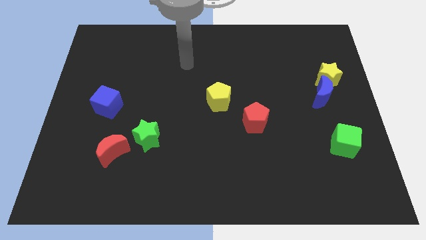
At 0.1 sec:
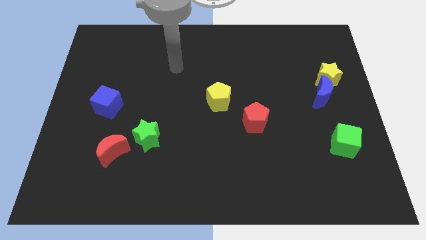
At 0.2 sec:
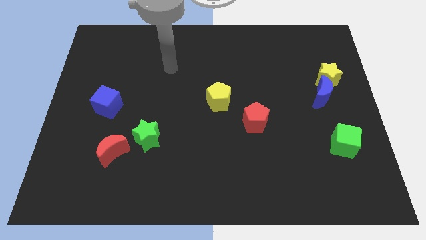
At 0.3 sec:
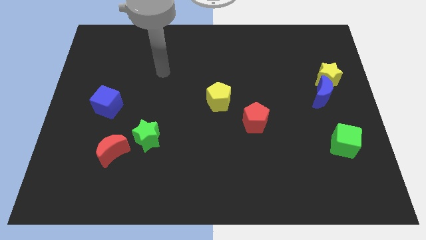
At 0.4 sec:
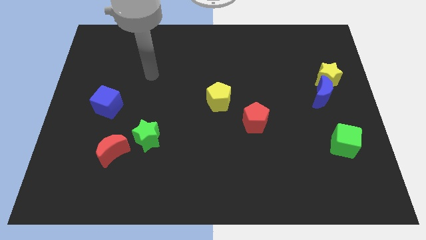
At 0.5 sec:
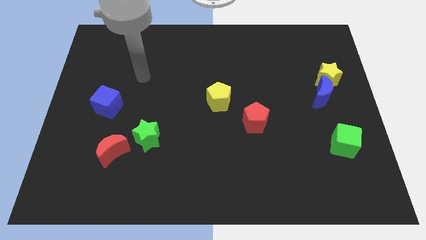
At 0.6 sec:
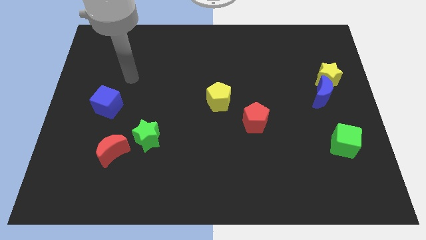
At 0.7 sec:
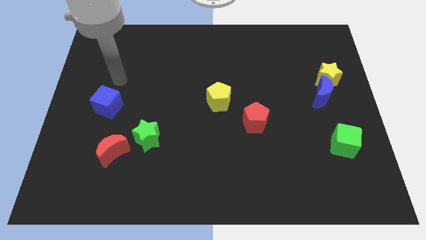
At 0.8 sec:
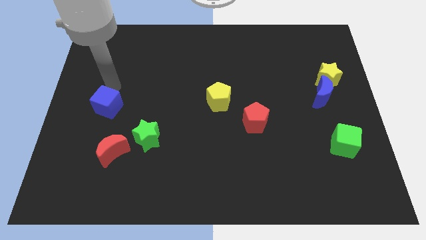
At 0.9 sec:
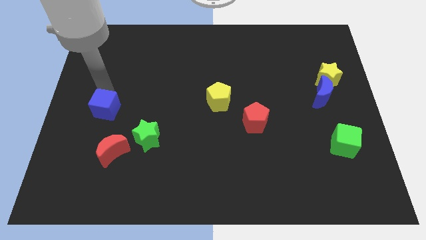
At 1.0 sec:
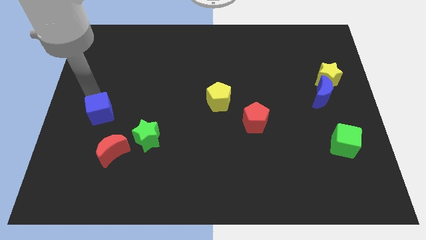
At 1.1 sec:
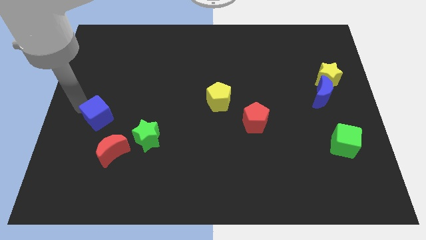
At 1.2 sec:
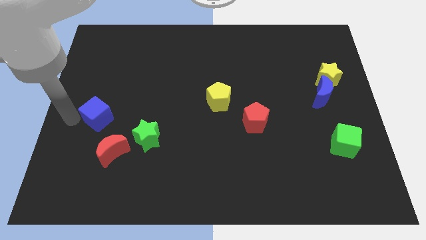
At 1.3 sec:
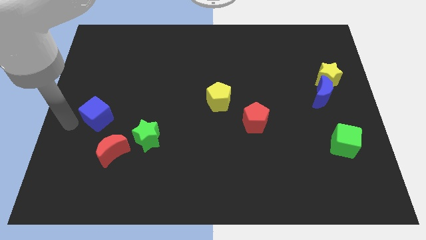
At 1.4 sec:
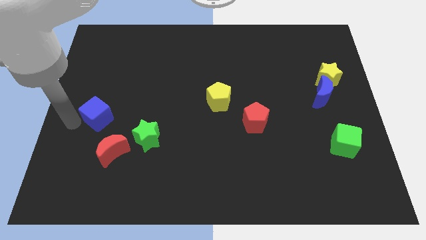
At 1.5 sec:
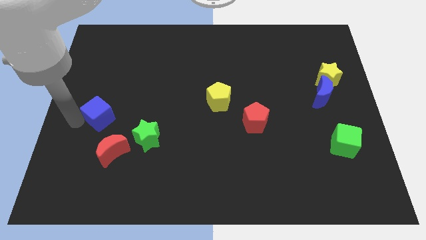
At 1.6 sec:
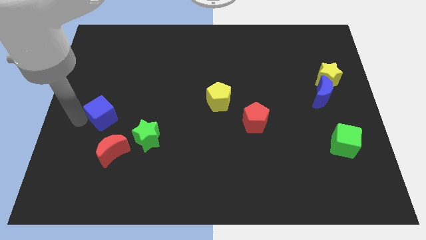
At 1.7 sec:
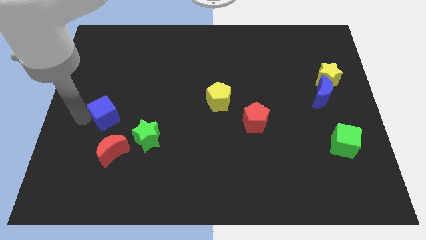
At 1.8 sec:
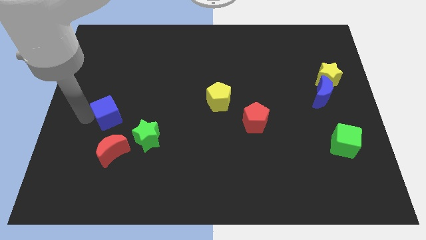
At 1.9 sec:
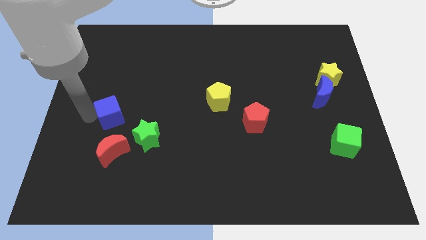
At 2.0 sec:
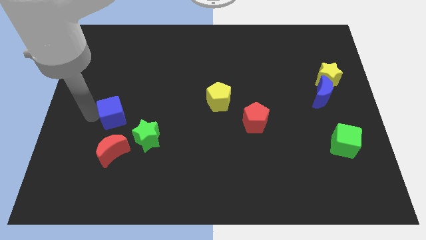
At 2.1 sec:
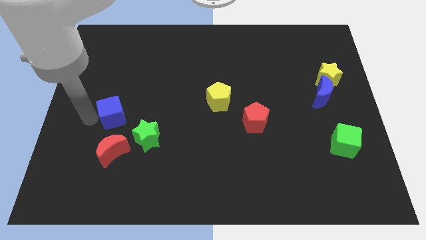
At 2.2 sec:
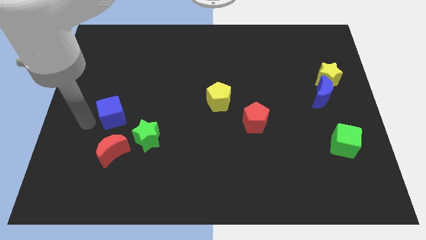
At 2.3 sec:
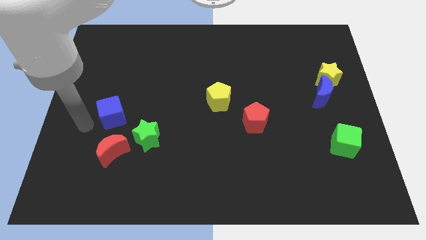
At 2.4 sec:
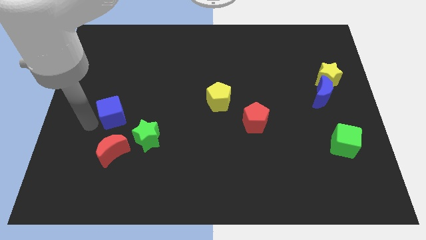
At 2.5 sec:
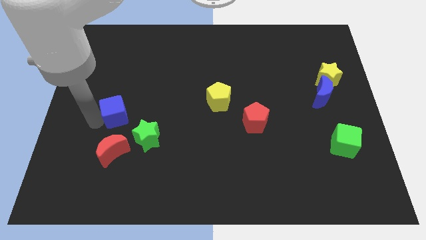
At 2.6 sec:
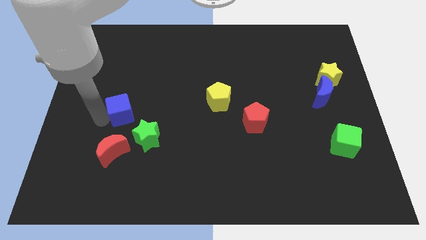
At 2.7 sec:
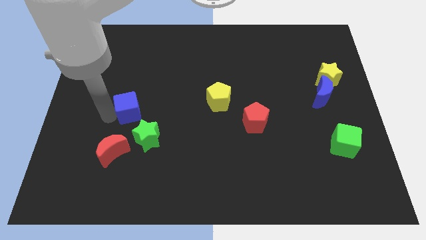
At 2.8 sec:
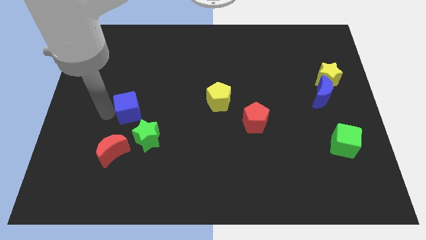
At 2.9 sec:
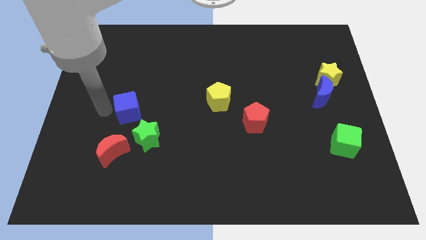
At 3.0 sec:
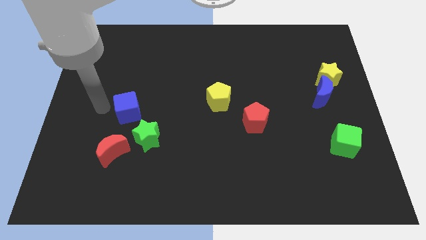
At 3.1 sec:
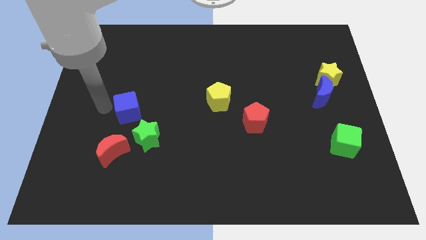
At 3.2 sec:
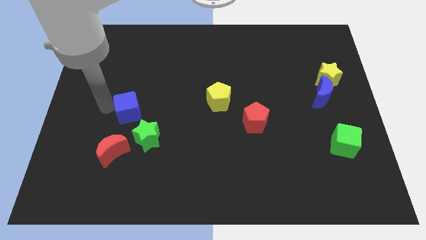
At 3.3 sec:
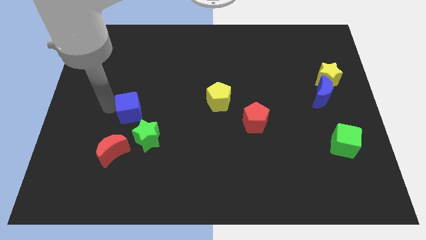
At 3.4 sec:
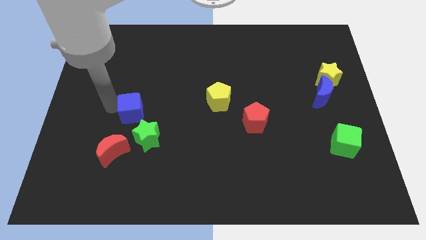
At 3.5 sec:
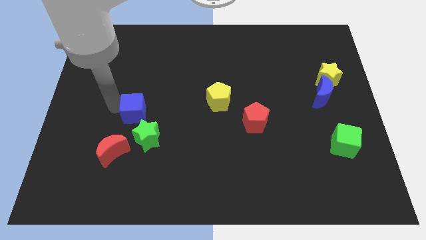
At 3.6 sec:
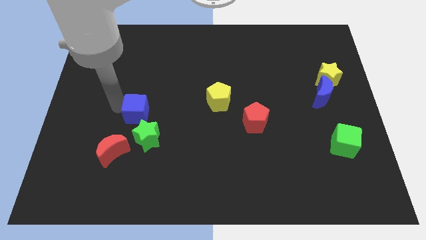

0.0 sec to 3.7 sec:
slide the blue cube a bit to the right

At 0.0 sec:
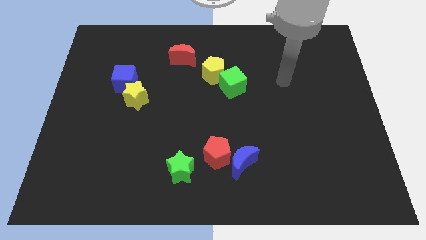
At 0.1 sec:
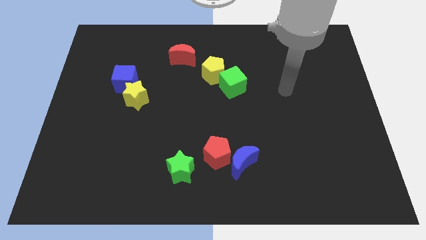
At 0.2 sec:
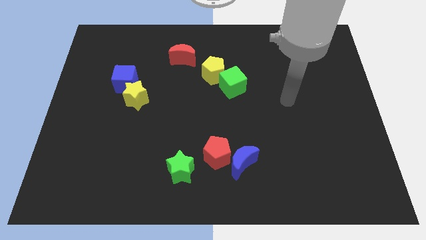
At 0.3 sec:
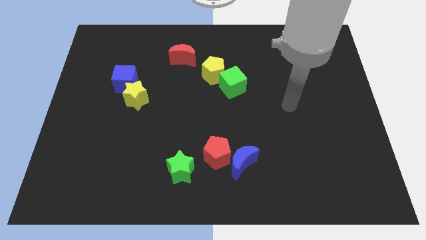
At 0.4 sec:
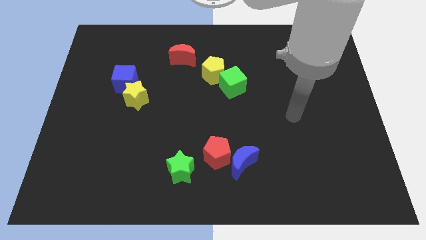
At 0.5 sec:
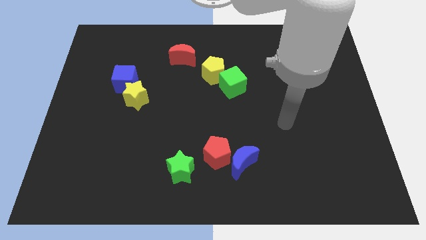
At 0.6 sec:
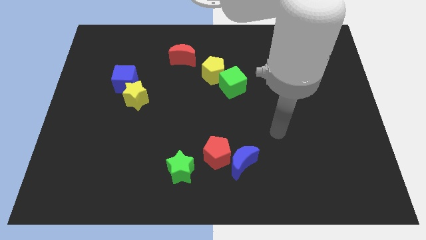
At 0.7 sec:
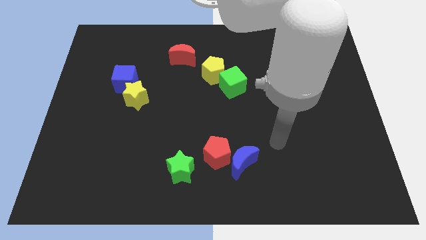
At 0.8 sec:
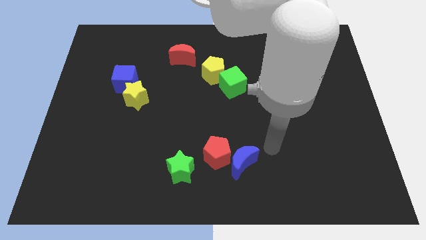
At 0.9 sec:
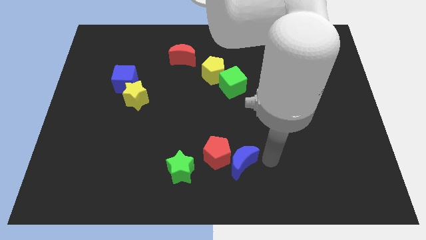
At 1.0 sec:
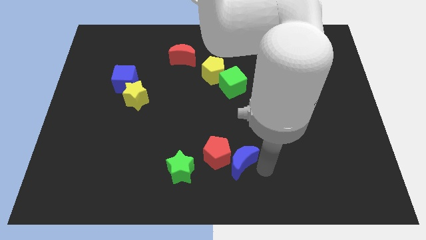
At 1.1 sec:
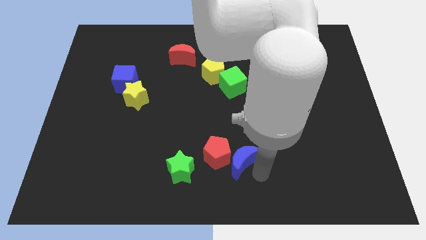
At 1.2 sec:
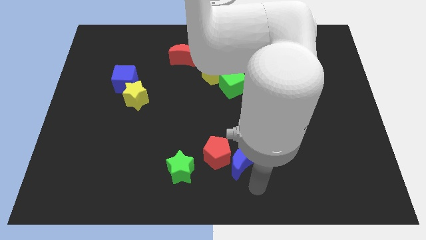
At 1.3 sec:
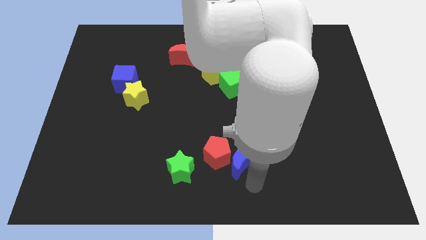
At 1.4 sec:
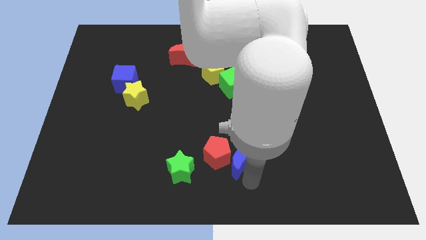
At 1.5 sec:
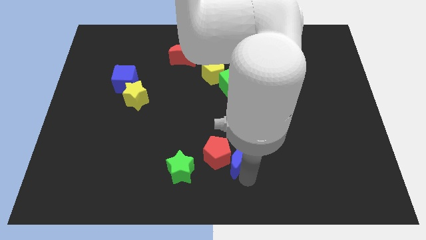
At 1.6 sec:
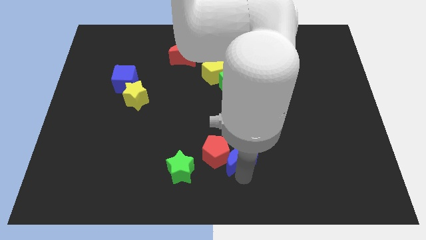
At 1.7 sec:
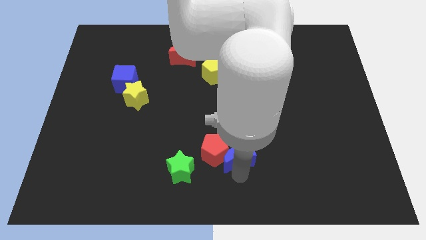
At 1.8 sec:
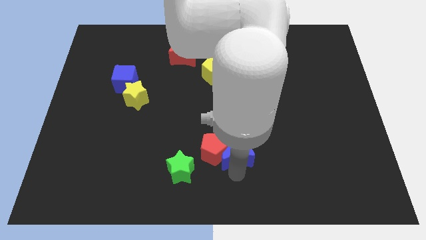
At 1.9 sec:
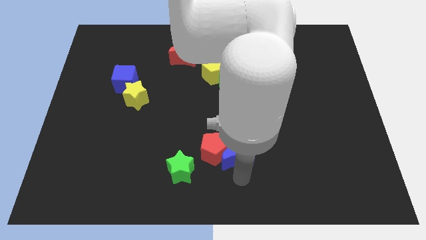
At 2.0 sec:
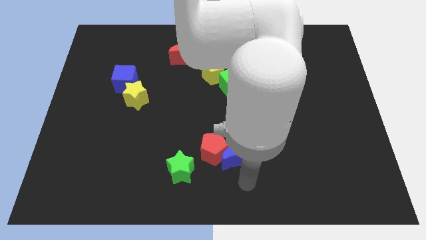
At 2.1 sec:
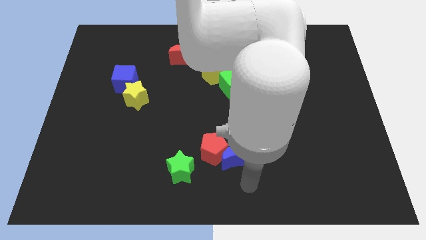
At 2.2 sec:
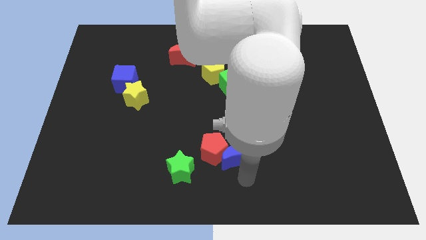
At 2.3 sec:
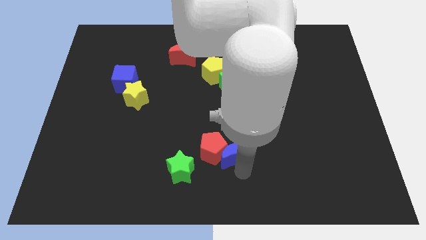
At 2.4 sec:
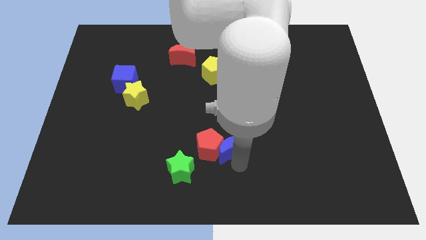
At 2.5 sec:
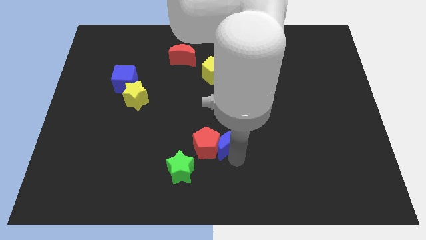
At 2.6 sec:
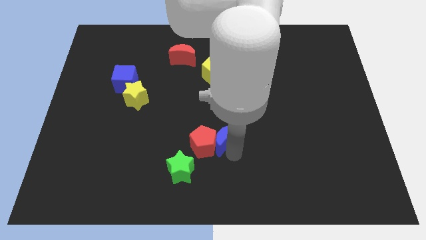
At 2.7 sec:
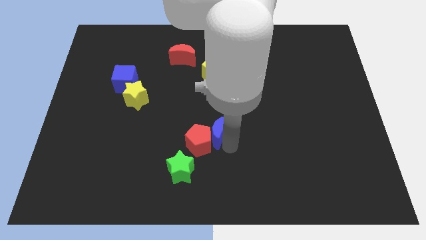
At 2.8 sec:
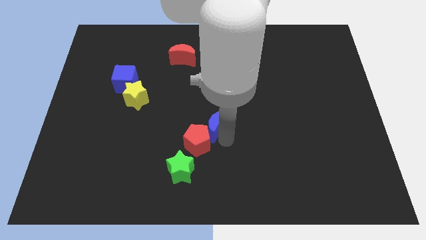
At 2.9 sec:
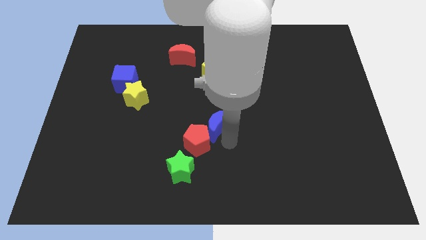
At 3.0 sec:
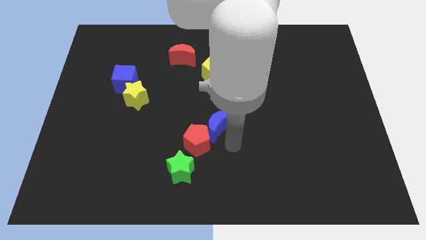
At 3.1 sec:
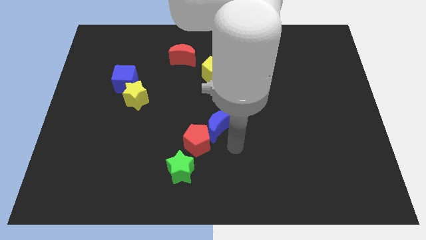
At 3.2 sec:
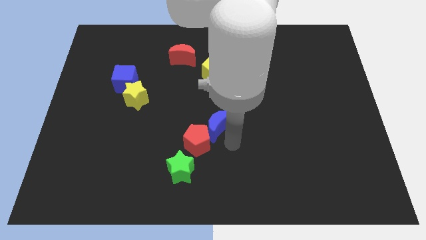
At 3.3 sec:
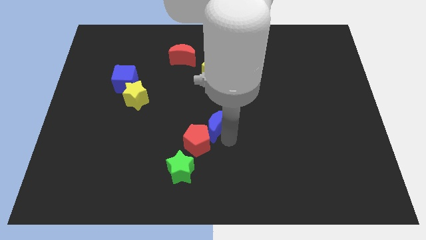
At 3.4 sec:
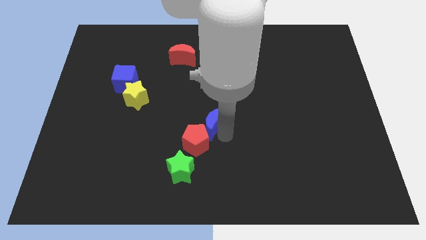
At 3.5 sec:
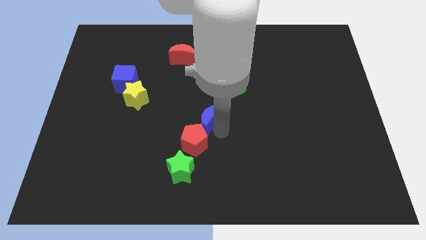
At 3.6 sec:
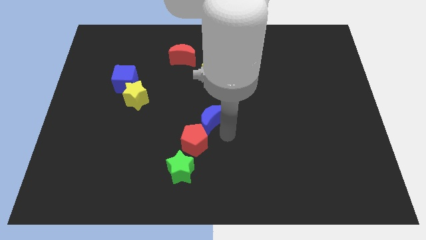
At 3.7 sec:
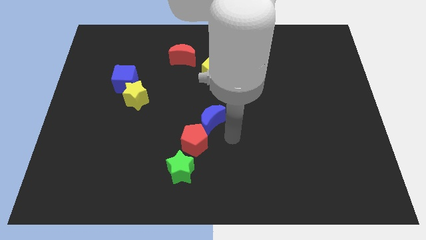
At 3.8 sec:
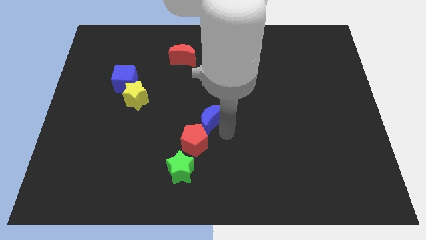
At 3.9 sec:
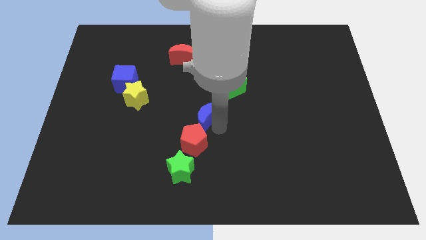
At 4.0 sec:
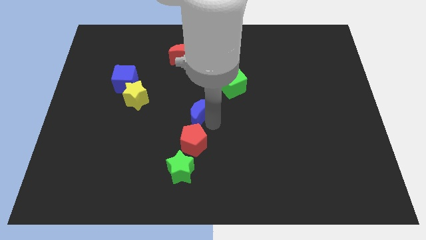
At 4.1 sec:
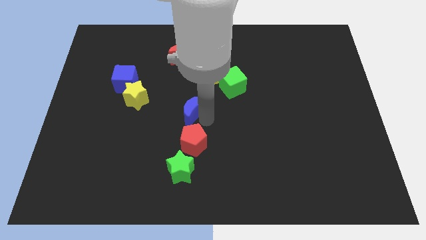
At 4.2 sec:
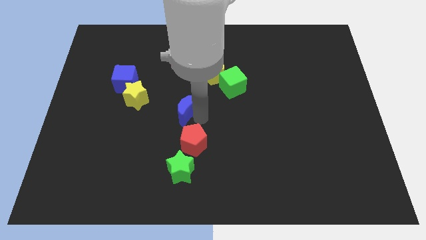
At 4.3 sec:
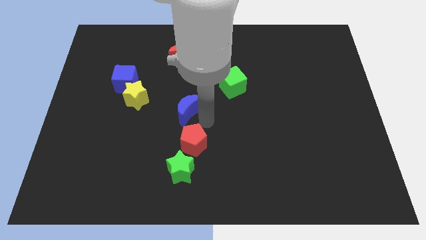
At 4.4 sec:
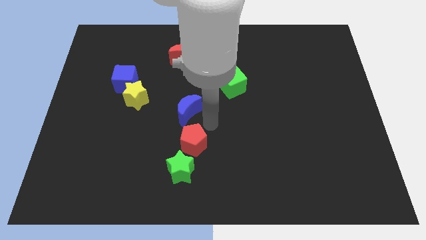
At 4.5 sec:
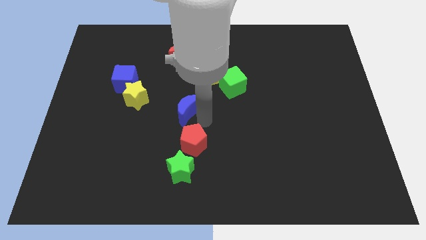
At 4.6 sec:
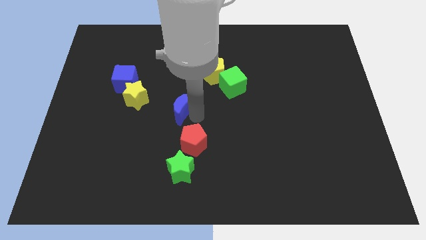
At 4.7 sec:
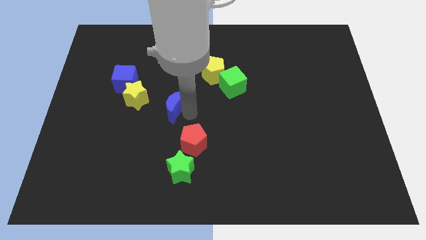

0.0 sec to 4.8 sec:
slide the blue moon up and then to the left
